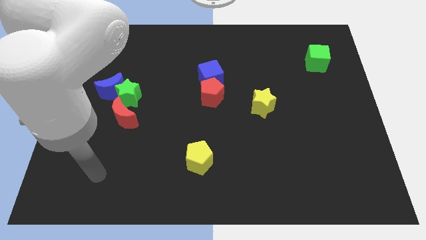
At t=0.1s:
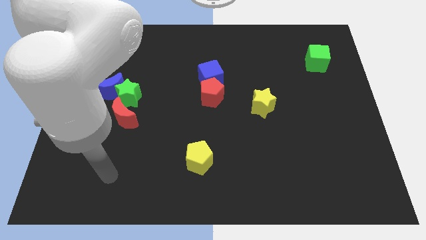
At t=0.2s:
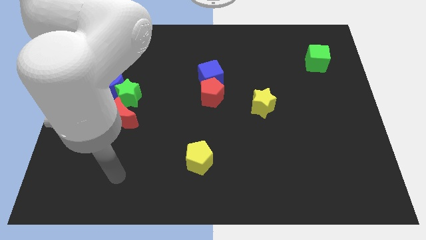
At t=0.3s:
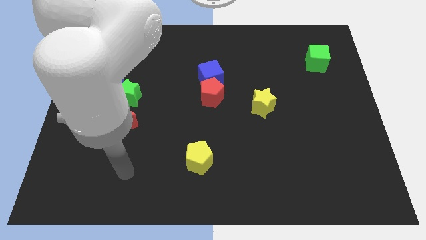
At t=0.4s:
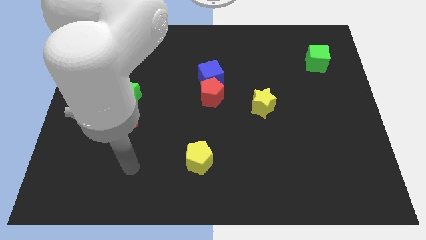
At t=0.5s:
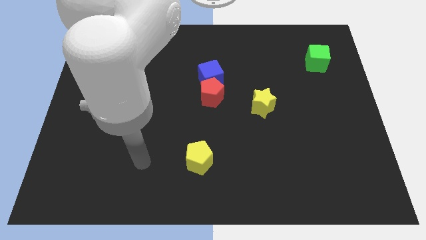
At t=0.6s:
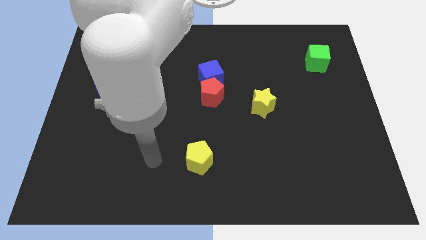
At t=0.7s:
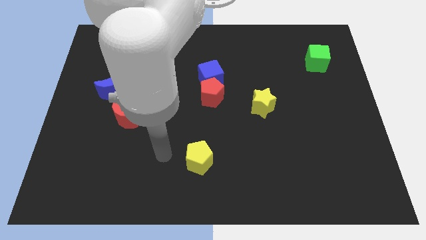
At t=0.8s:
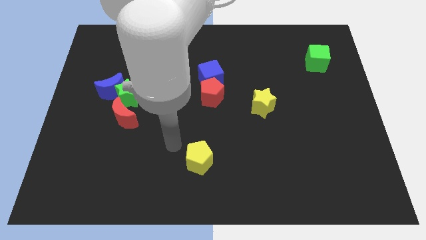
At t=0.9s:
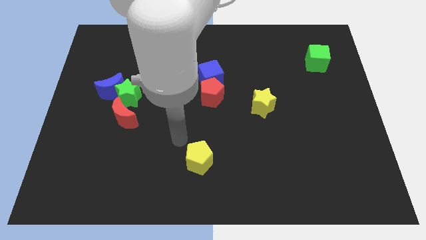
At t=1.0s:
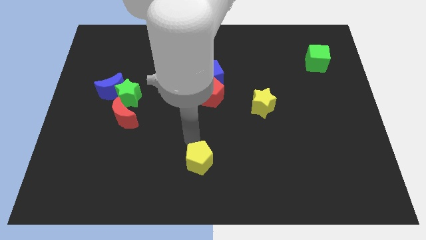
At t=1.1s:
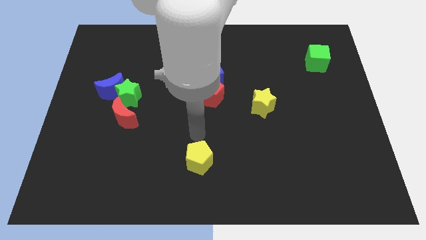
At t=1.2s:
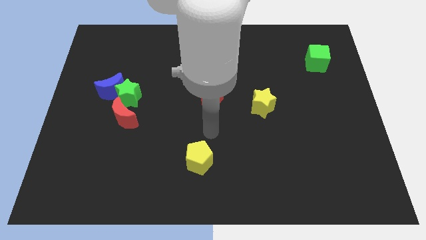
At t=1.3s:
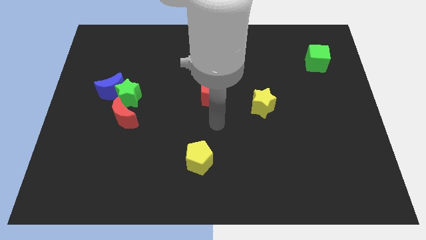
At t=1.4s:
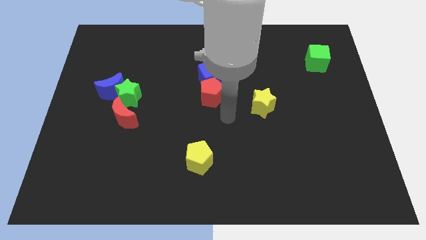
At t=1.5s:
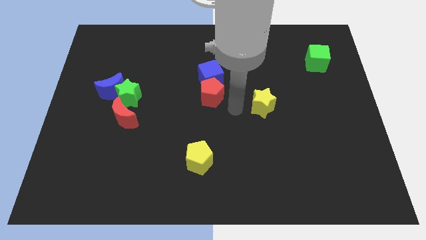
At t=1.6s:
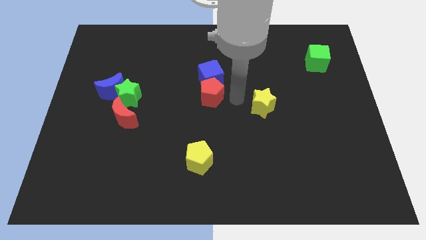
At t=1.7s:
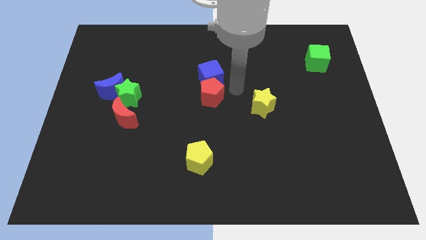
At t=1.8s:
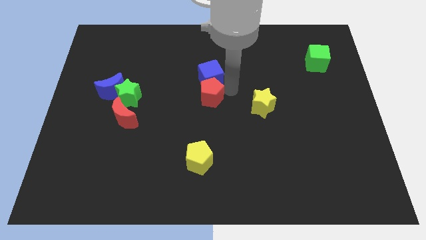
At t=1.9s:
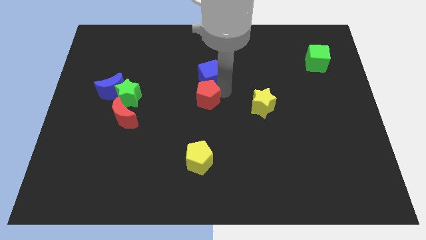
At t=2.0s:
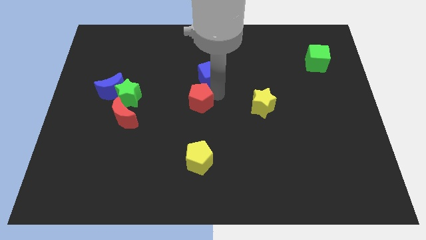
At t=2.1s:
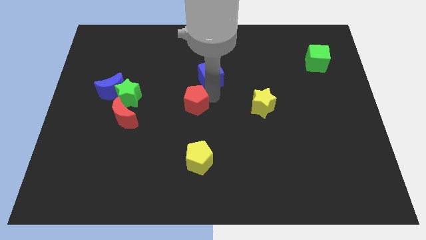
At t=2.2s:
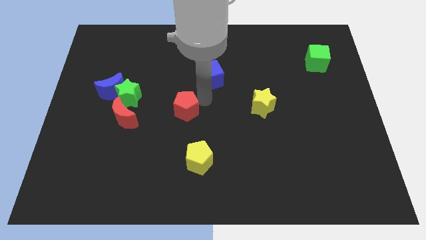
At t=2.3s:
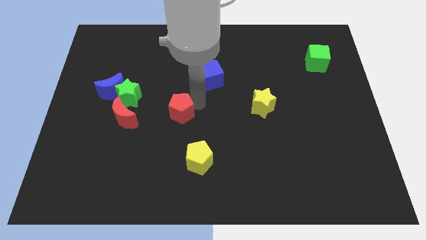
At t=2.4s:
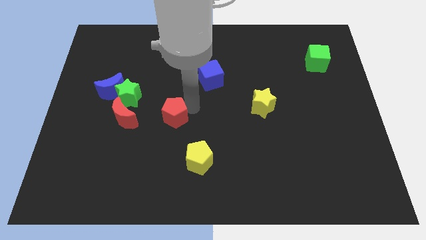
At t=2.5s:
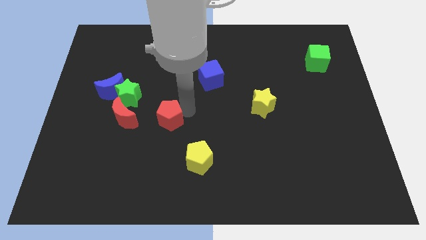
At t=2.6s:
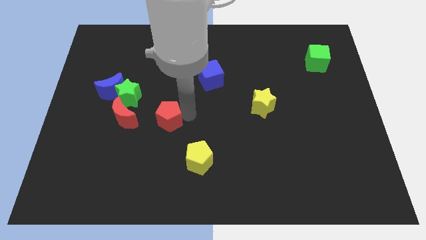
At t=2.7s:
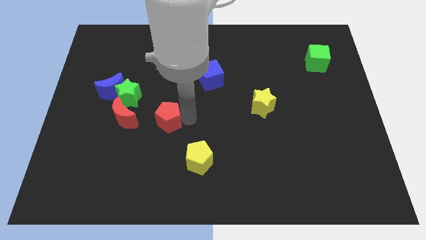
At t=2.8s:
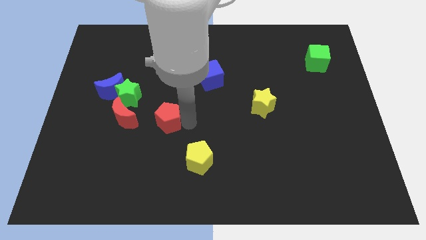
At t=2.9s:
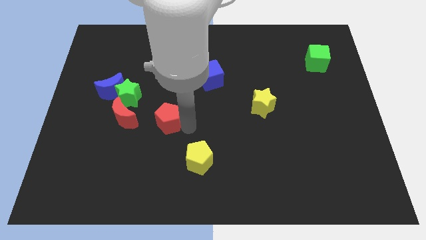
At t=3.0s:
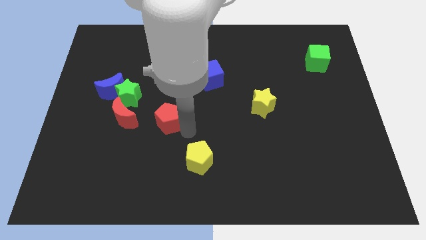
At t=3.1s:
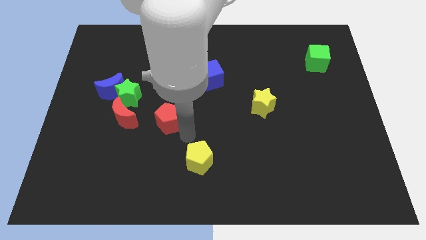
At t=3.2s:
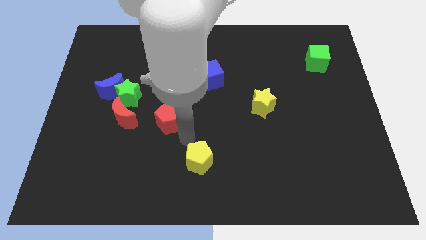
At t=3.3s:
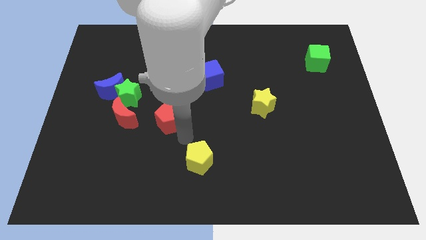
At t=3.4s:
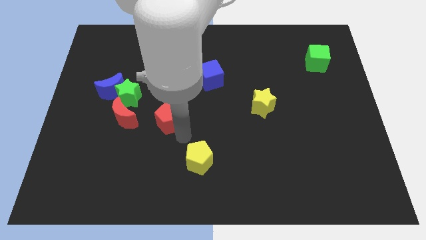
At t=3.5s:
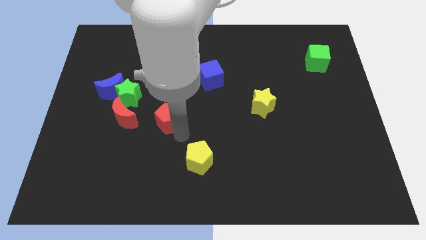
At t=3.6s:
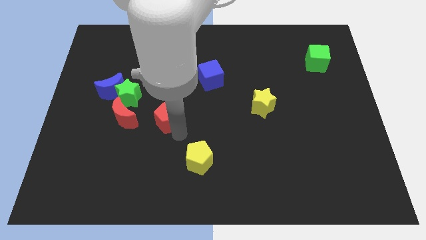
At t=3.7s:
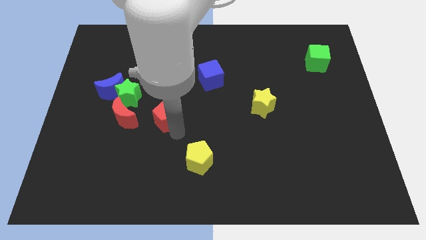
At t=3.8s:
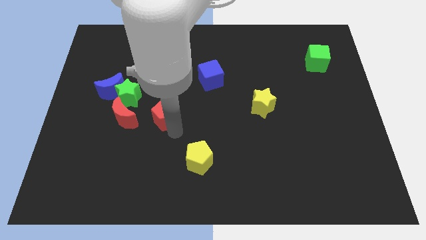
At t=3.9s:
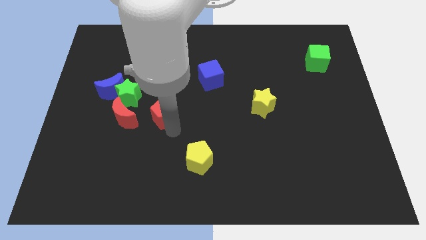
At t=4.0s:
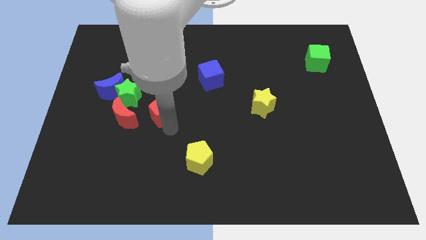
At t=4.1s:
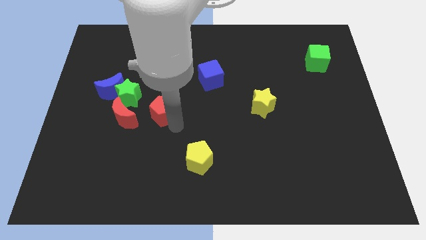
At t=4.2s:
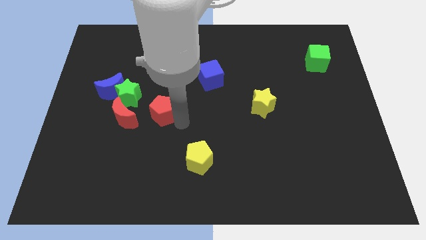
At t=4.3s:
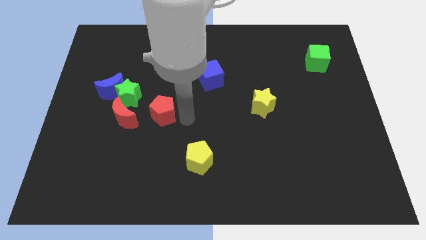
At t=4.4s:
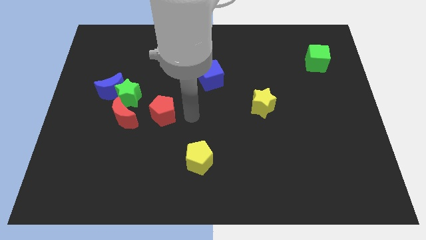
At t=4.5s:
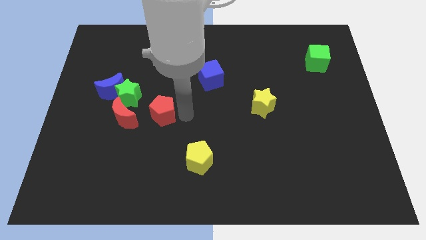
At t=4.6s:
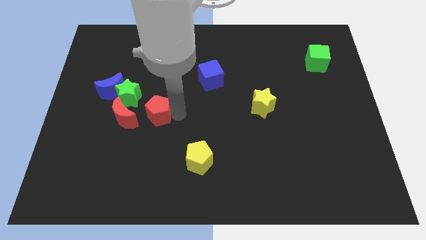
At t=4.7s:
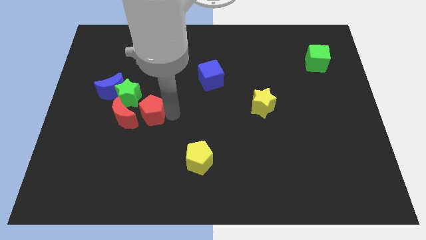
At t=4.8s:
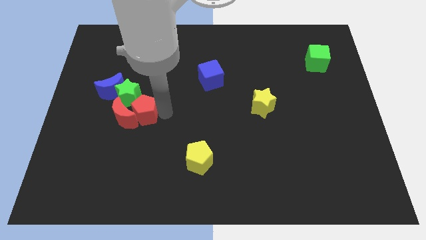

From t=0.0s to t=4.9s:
slide the red pentagon to the red moon

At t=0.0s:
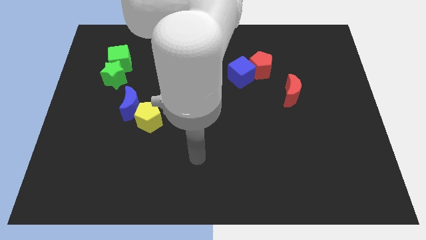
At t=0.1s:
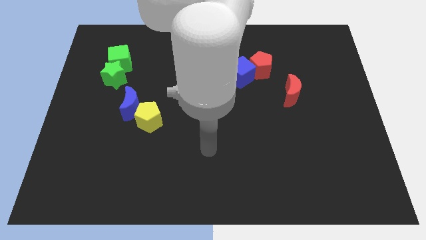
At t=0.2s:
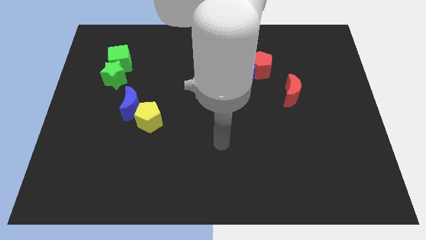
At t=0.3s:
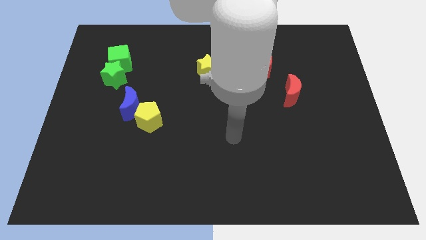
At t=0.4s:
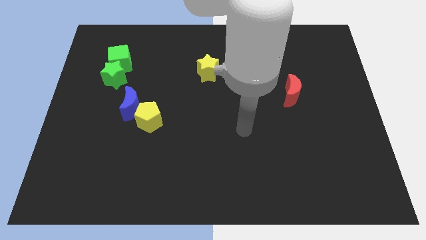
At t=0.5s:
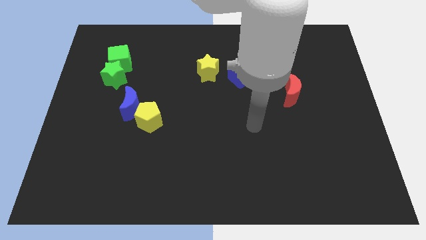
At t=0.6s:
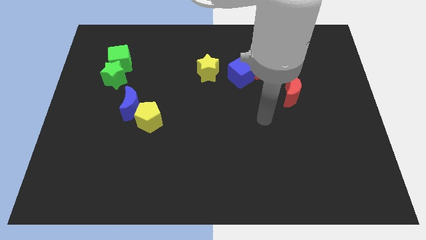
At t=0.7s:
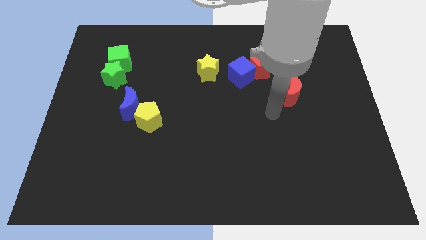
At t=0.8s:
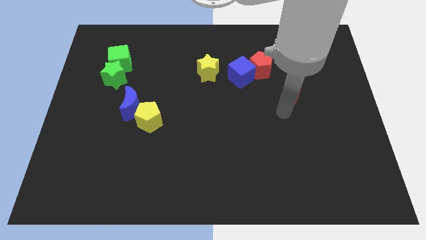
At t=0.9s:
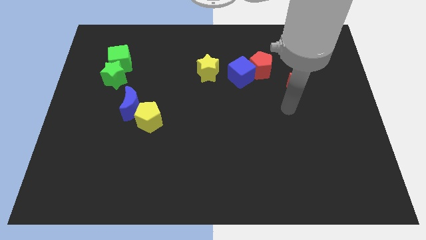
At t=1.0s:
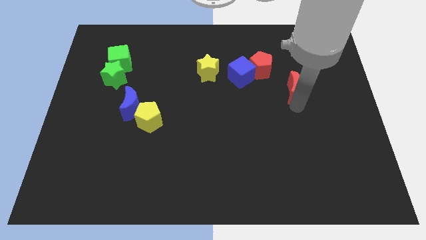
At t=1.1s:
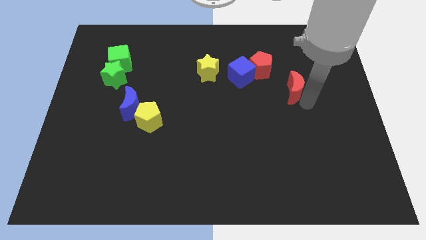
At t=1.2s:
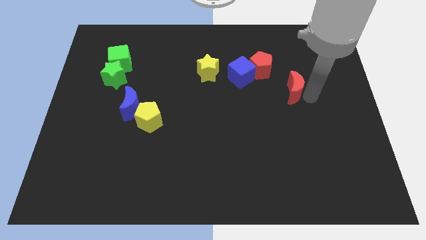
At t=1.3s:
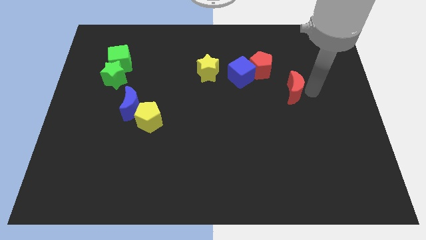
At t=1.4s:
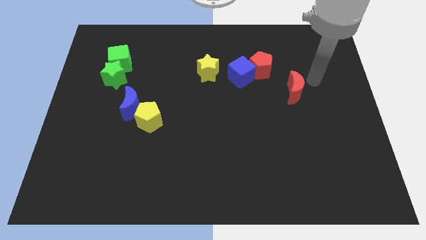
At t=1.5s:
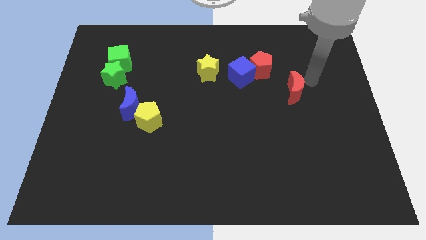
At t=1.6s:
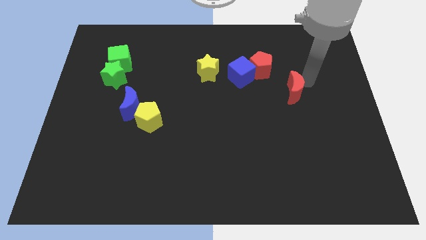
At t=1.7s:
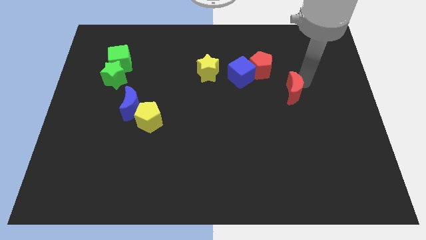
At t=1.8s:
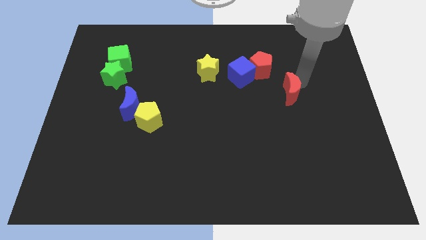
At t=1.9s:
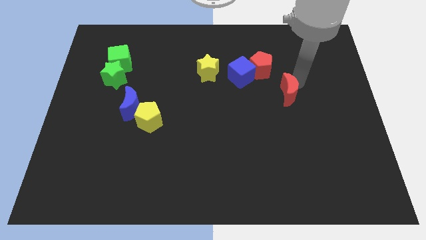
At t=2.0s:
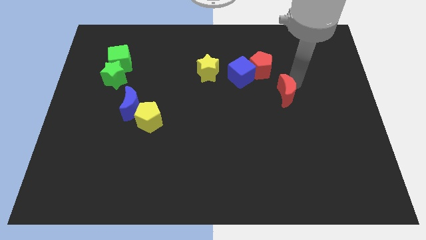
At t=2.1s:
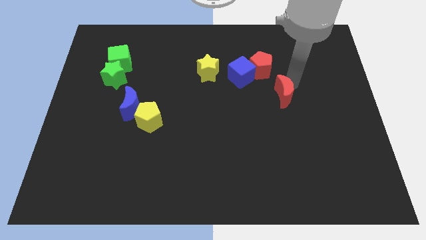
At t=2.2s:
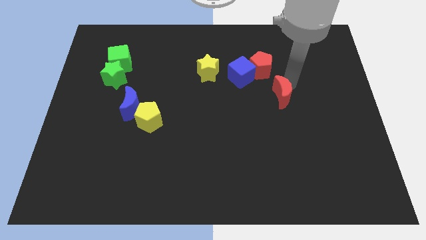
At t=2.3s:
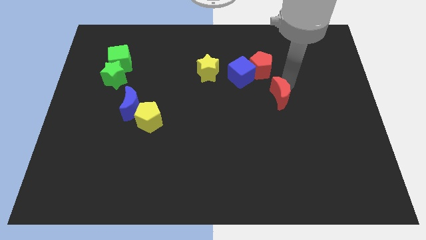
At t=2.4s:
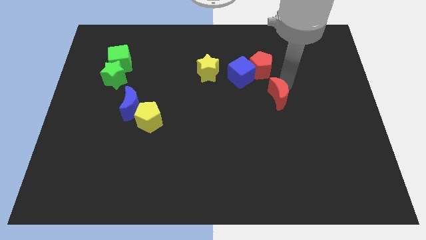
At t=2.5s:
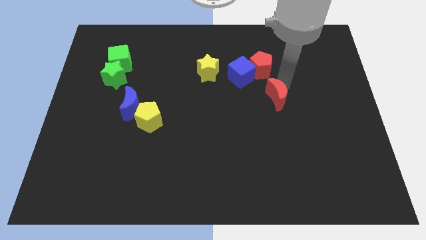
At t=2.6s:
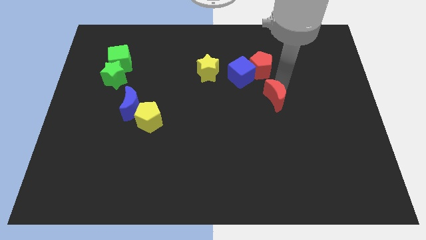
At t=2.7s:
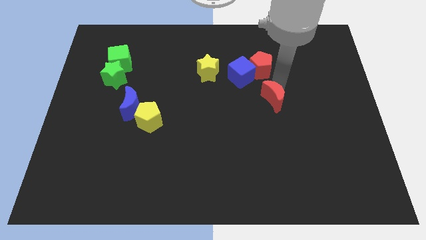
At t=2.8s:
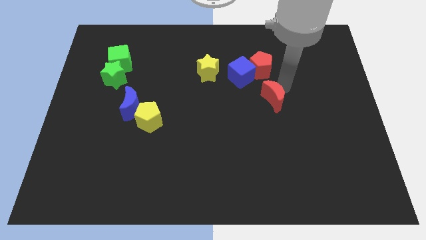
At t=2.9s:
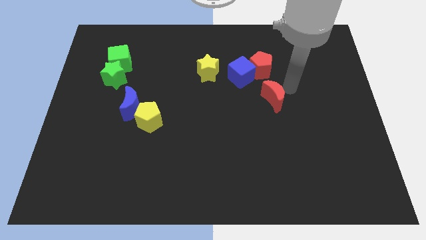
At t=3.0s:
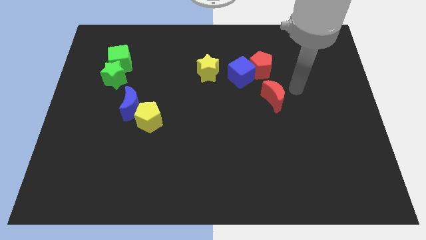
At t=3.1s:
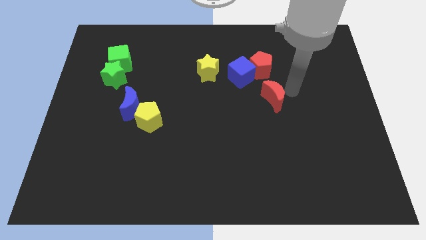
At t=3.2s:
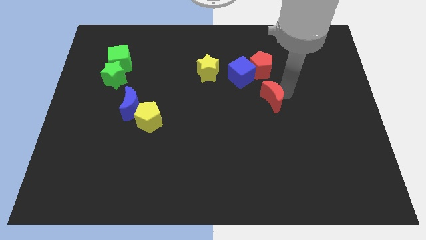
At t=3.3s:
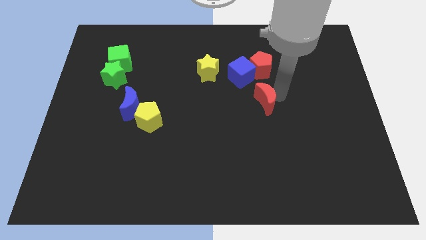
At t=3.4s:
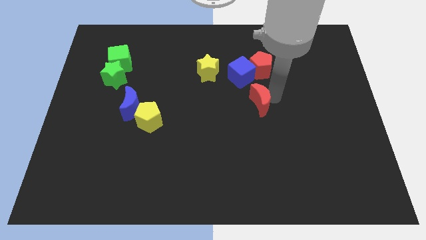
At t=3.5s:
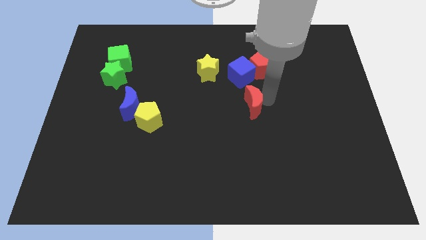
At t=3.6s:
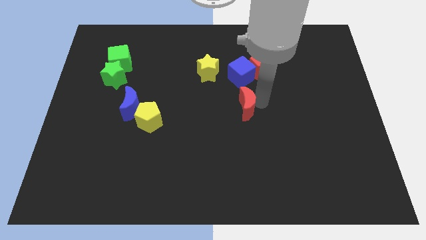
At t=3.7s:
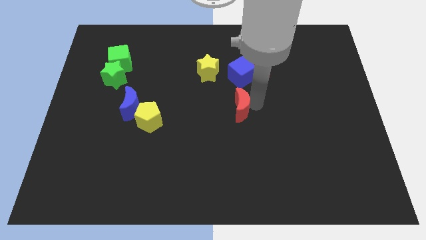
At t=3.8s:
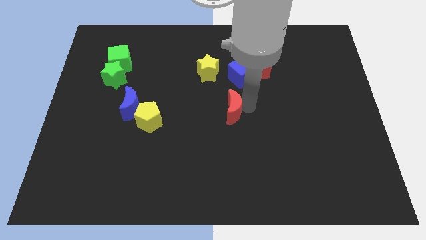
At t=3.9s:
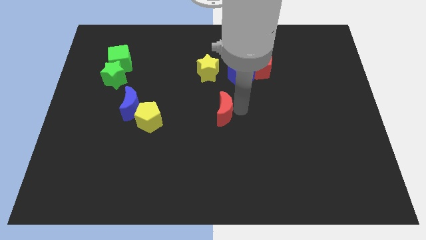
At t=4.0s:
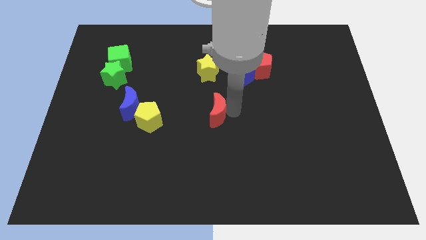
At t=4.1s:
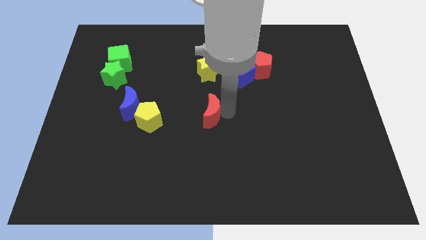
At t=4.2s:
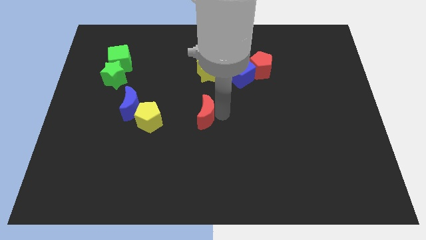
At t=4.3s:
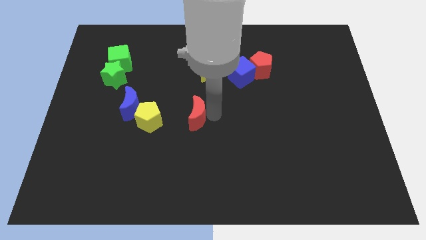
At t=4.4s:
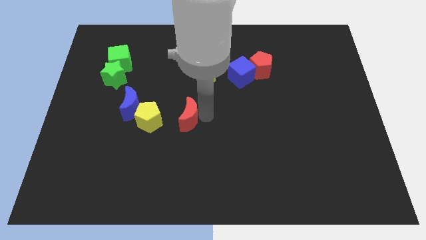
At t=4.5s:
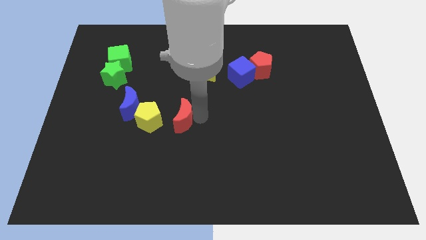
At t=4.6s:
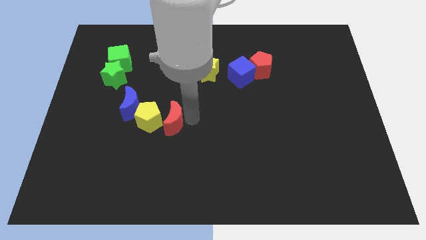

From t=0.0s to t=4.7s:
push the red moon next to the yellow pentagon
